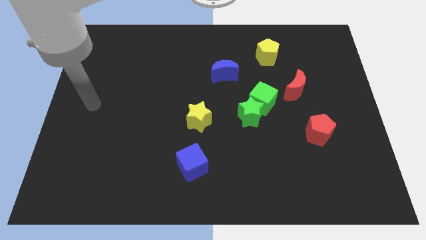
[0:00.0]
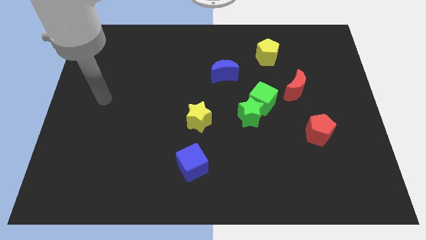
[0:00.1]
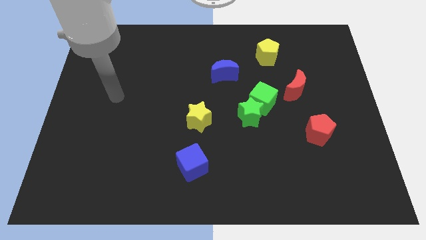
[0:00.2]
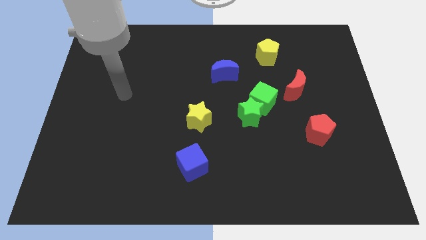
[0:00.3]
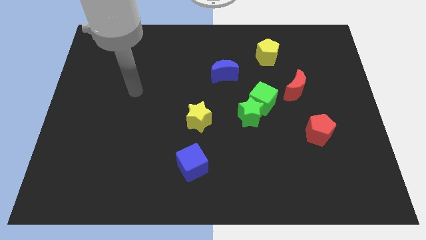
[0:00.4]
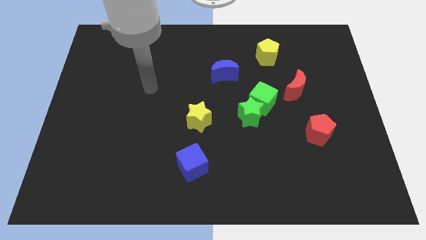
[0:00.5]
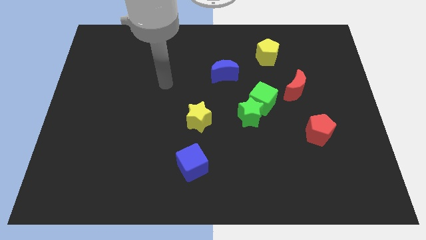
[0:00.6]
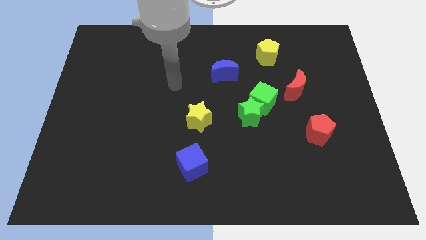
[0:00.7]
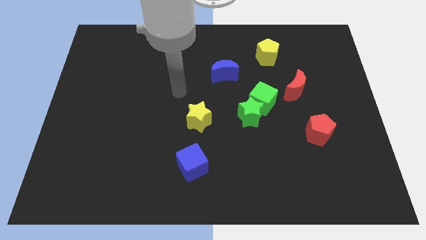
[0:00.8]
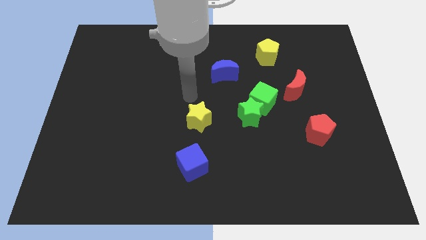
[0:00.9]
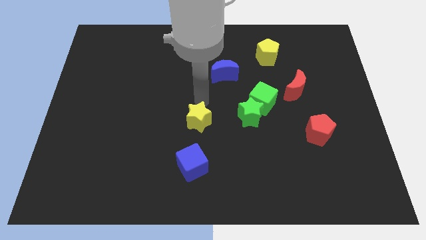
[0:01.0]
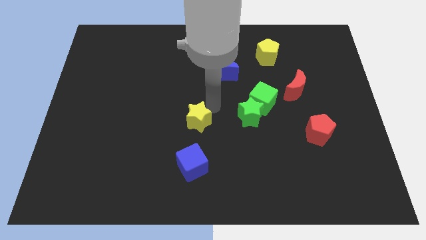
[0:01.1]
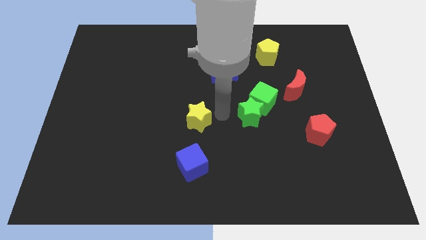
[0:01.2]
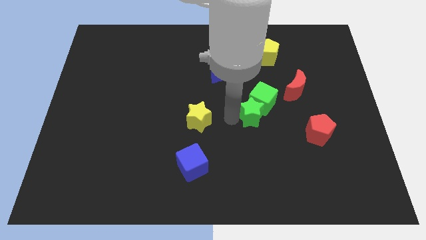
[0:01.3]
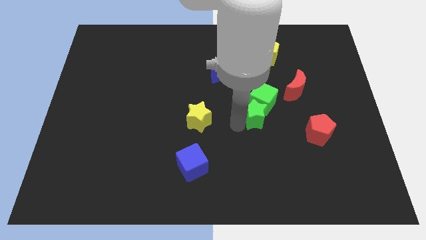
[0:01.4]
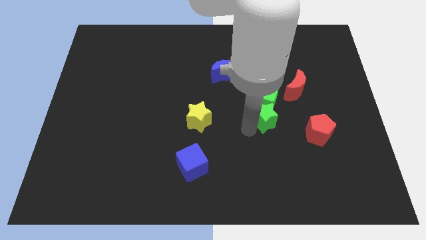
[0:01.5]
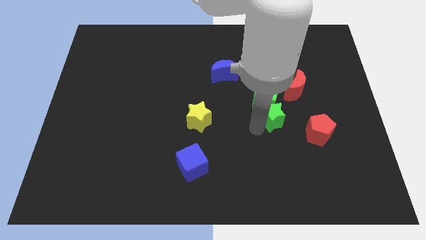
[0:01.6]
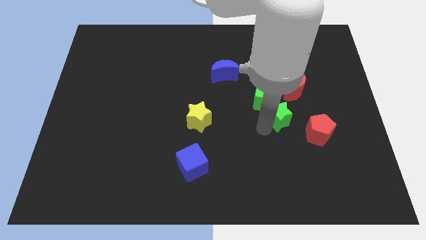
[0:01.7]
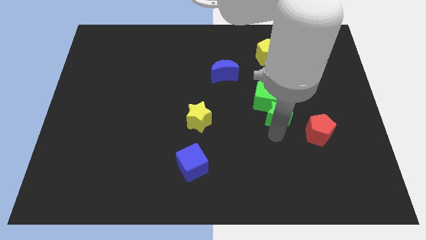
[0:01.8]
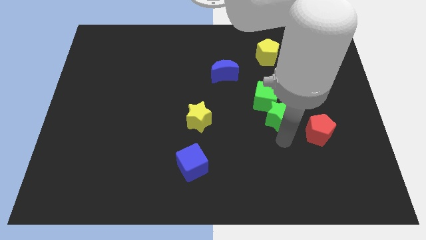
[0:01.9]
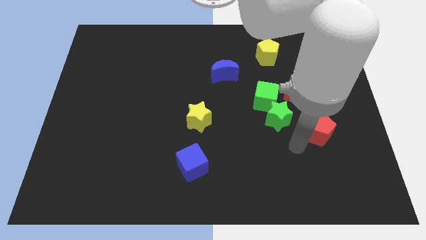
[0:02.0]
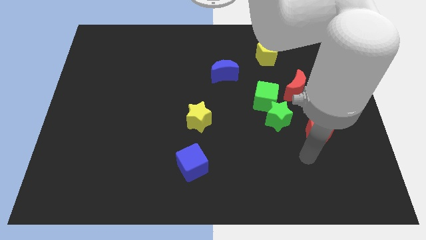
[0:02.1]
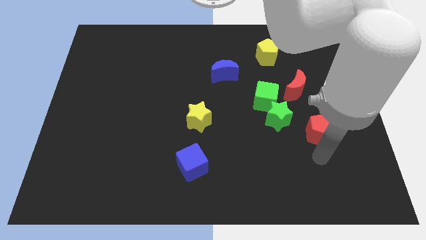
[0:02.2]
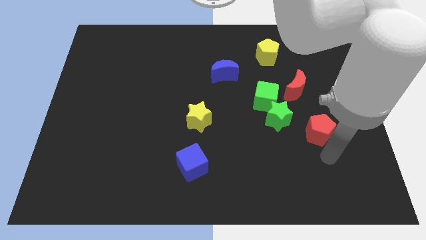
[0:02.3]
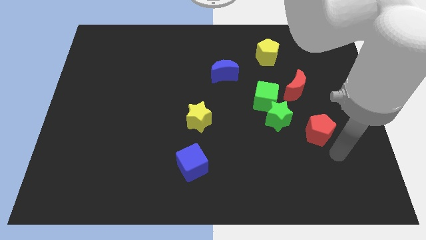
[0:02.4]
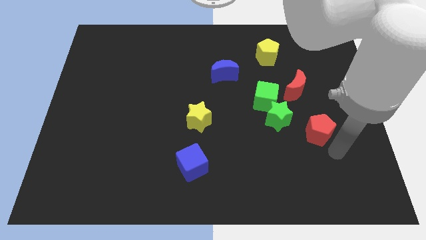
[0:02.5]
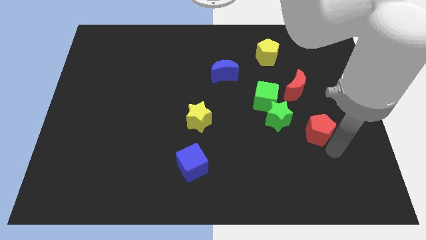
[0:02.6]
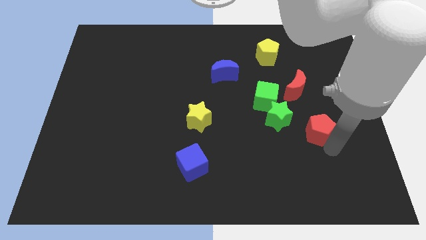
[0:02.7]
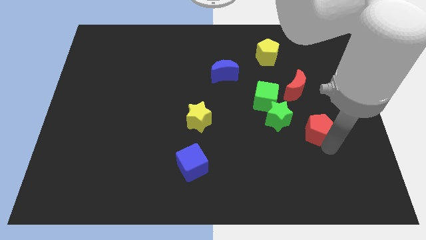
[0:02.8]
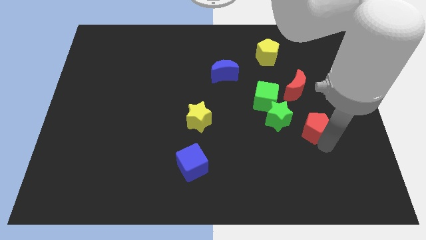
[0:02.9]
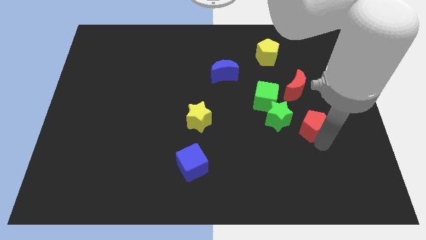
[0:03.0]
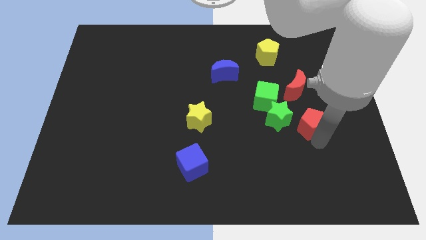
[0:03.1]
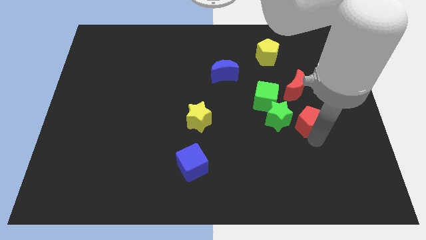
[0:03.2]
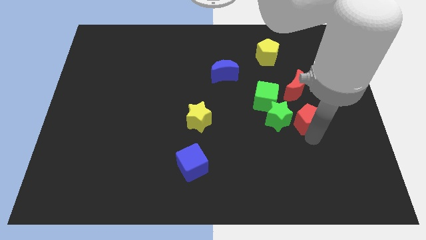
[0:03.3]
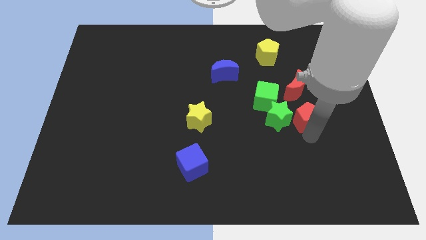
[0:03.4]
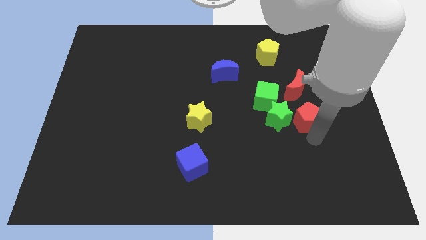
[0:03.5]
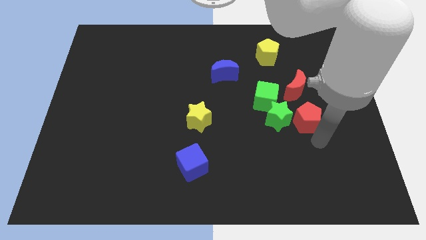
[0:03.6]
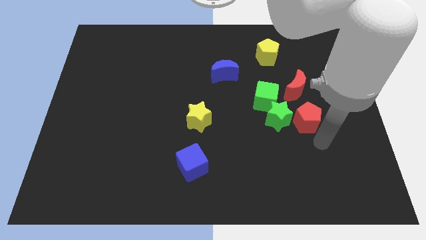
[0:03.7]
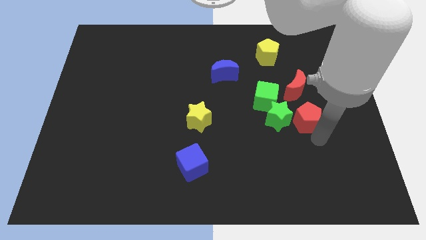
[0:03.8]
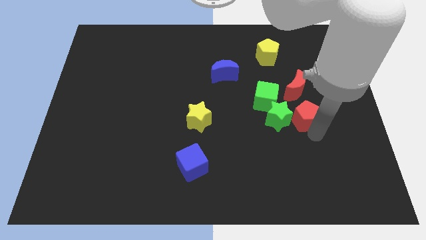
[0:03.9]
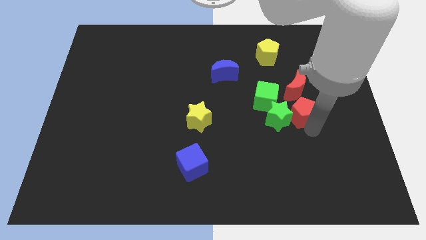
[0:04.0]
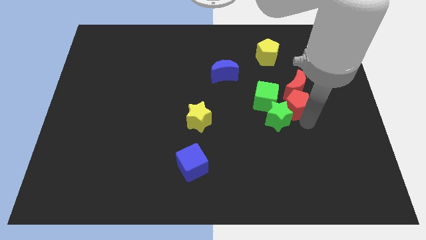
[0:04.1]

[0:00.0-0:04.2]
push the red pentagon upwards and to the left a little

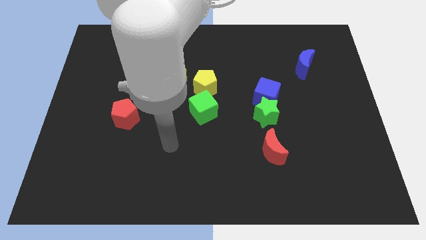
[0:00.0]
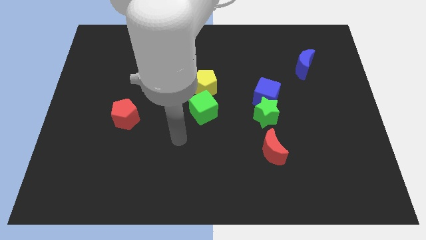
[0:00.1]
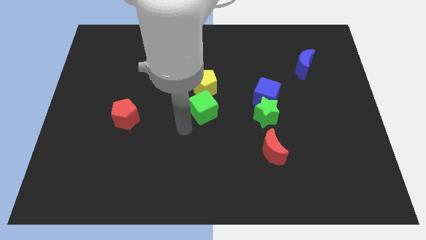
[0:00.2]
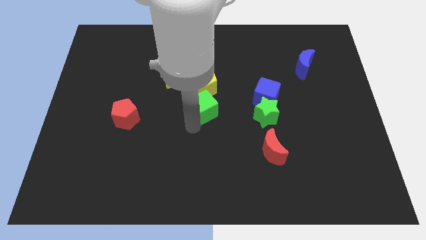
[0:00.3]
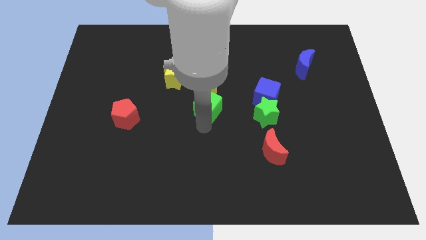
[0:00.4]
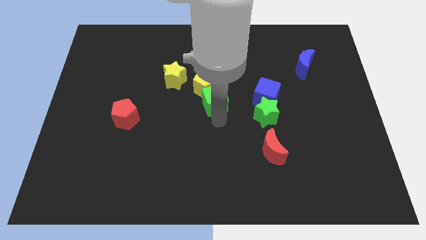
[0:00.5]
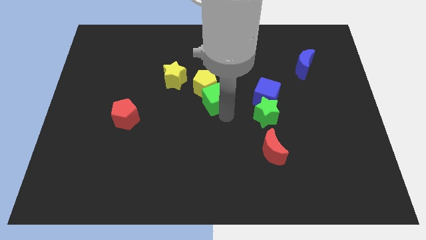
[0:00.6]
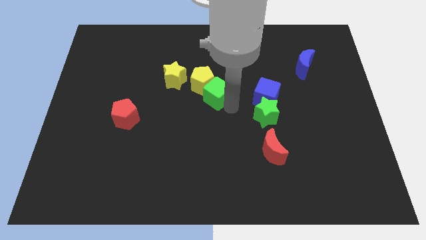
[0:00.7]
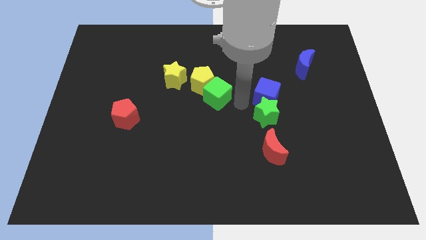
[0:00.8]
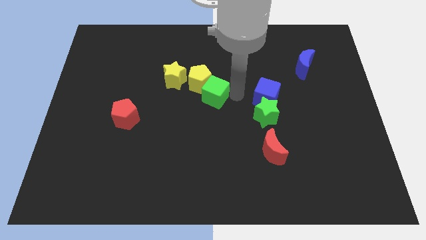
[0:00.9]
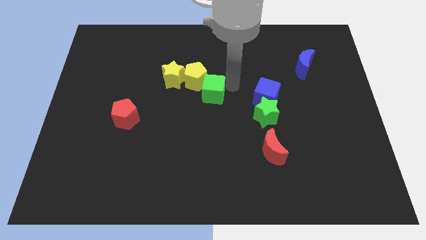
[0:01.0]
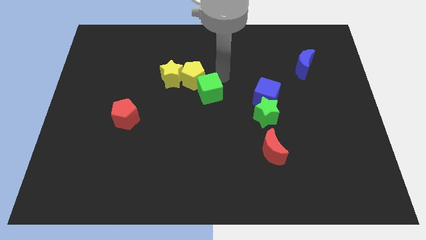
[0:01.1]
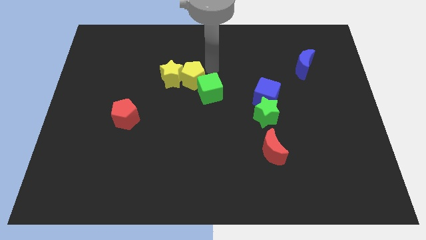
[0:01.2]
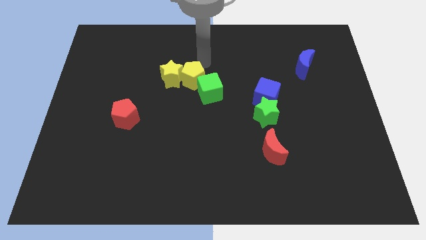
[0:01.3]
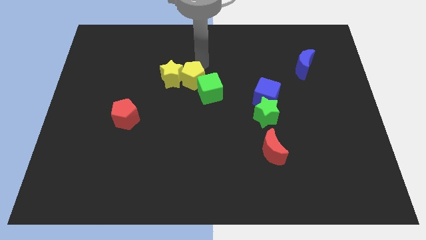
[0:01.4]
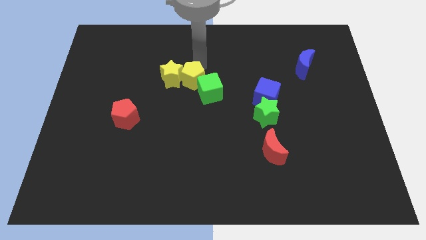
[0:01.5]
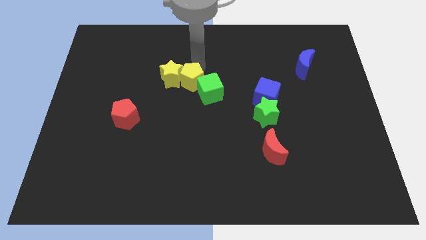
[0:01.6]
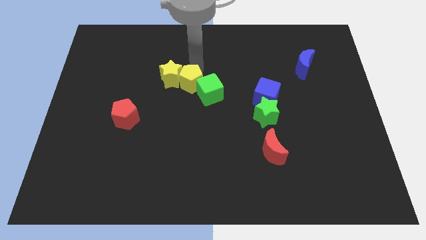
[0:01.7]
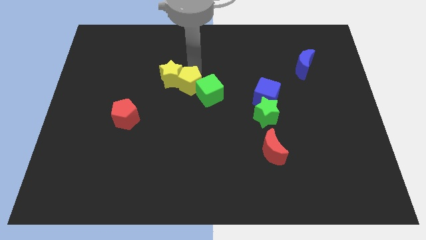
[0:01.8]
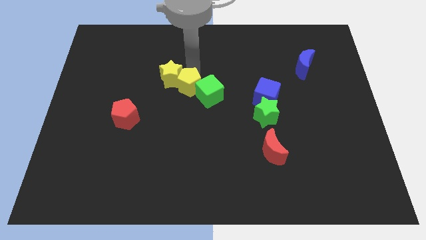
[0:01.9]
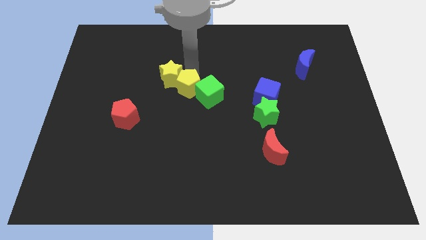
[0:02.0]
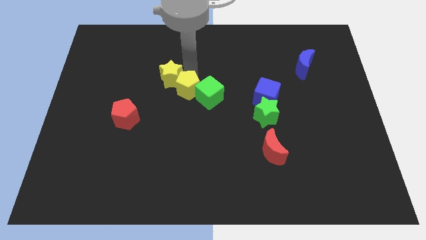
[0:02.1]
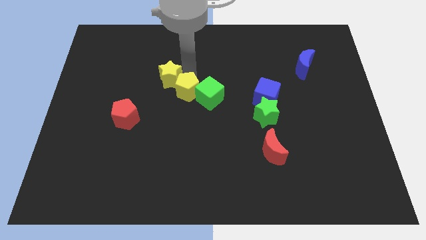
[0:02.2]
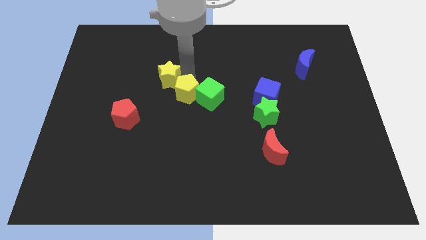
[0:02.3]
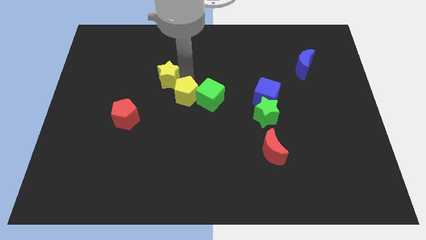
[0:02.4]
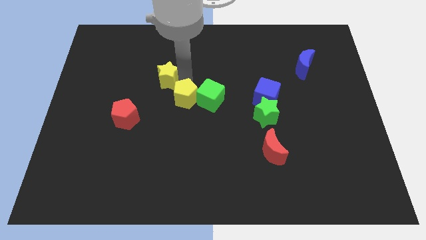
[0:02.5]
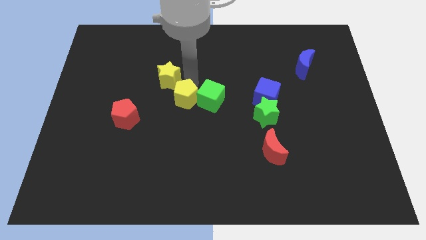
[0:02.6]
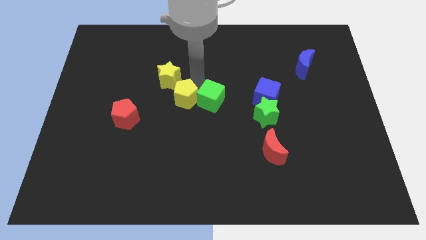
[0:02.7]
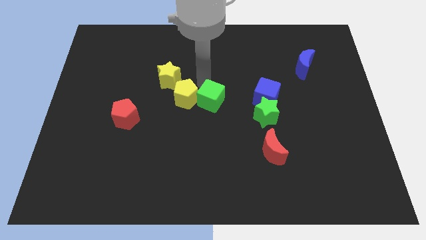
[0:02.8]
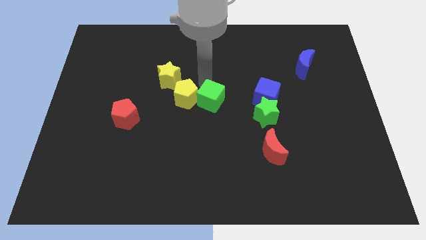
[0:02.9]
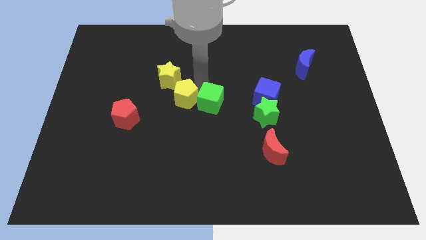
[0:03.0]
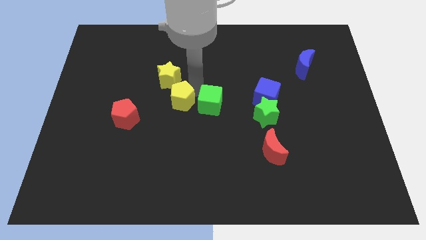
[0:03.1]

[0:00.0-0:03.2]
slightly slide the yellow pentagon downwards and then left

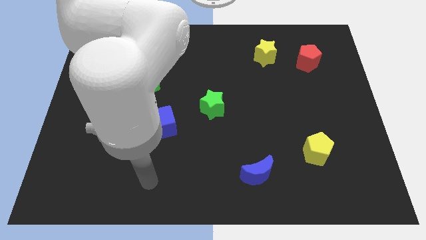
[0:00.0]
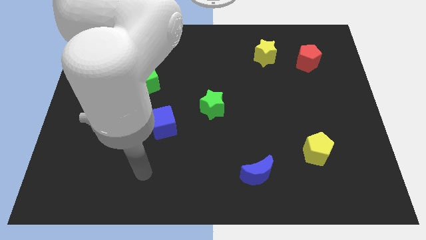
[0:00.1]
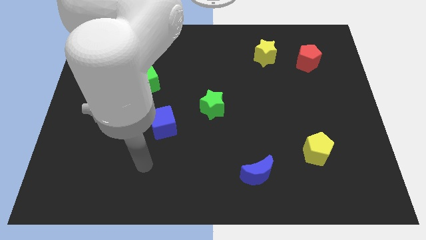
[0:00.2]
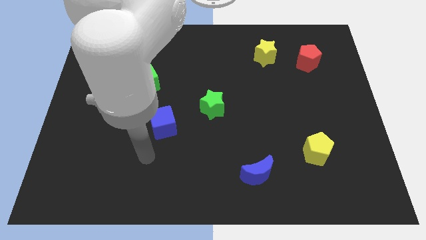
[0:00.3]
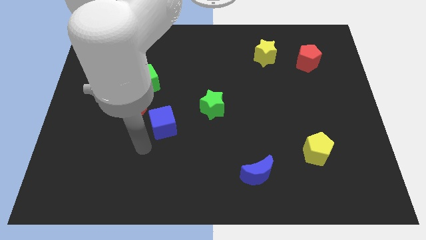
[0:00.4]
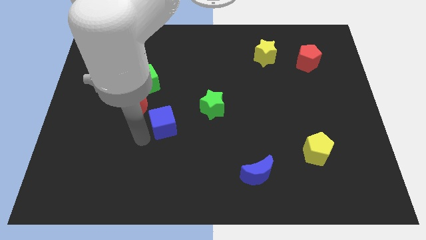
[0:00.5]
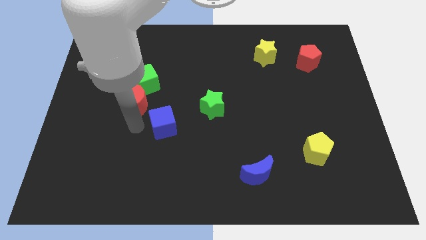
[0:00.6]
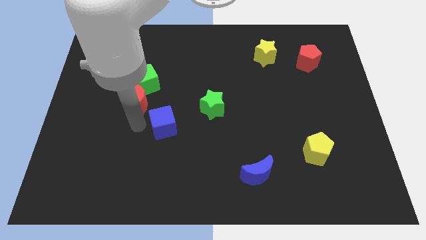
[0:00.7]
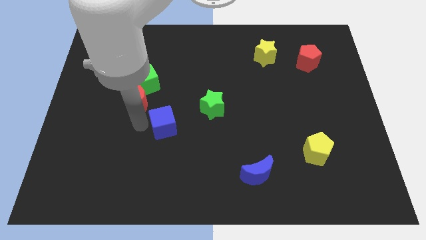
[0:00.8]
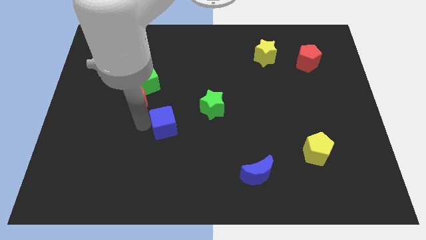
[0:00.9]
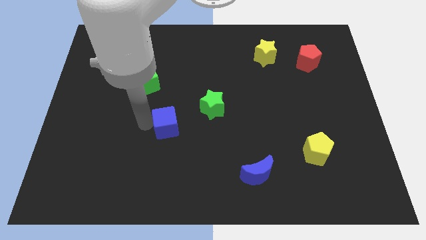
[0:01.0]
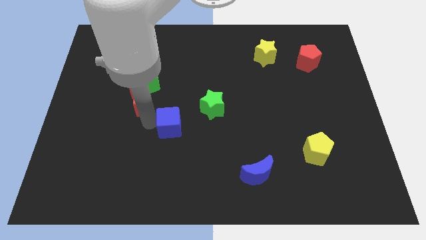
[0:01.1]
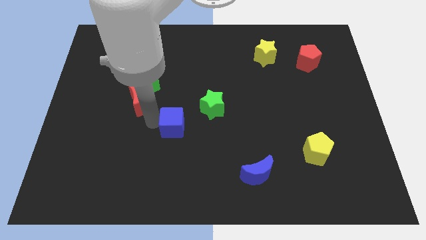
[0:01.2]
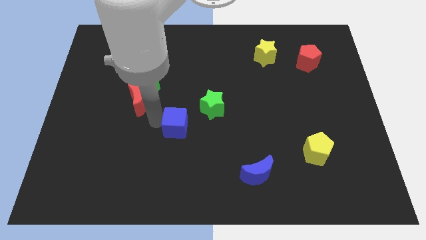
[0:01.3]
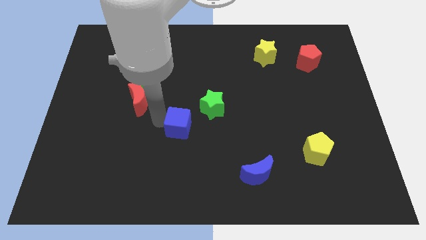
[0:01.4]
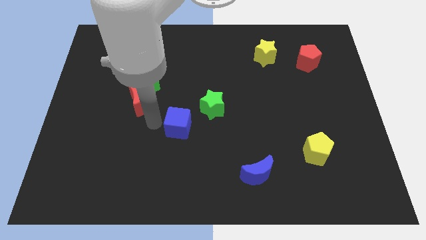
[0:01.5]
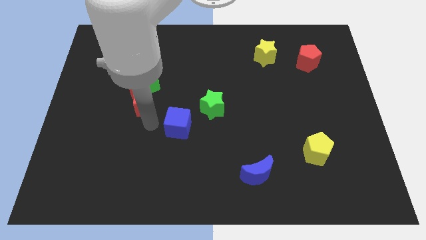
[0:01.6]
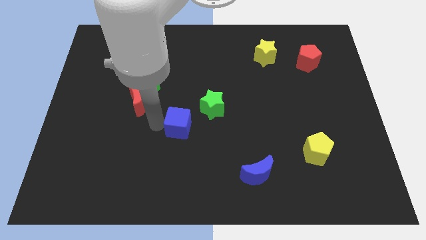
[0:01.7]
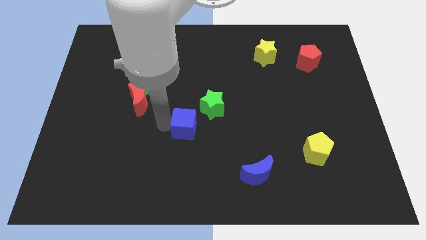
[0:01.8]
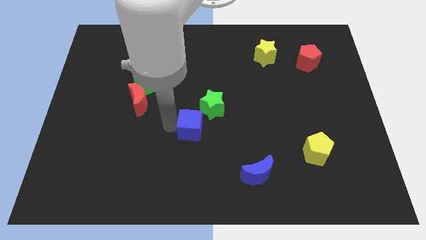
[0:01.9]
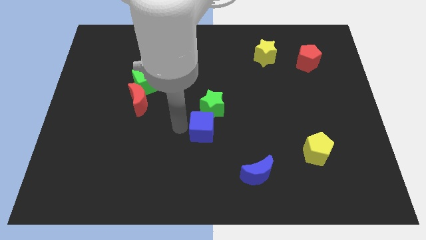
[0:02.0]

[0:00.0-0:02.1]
slightly slide the blue cube right
